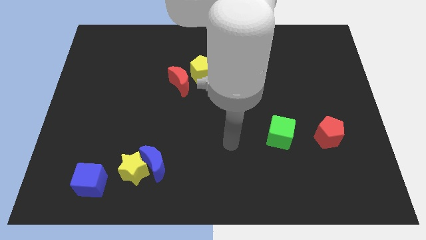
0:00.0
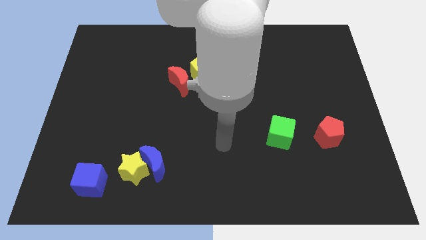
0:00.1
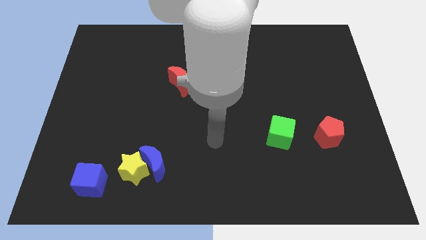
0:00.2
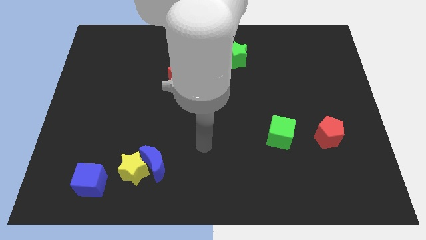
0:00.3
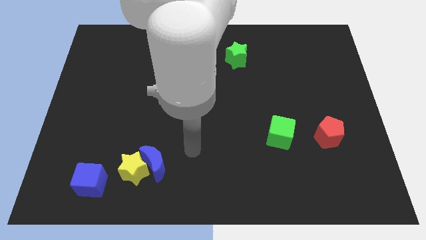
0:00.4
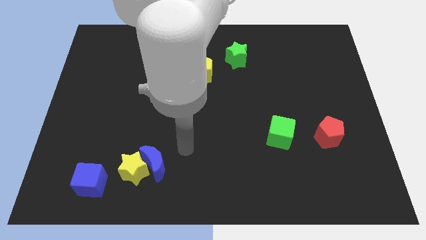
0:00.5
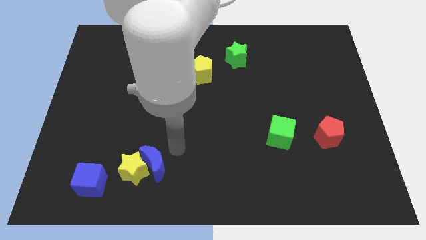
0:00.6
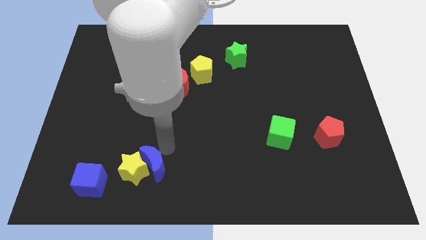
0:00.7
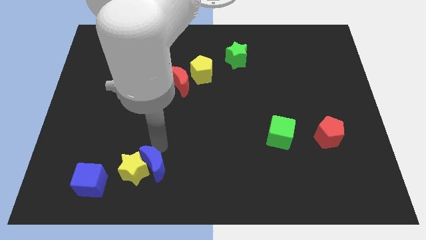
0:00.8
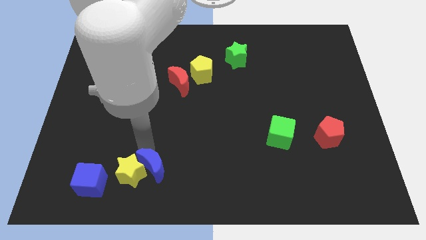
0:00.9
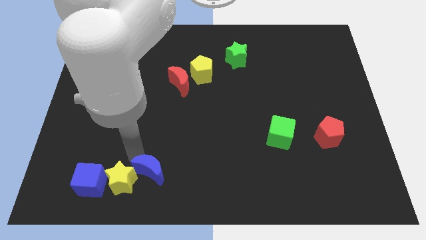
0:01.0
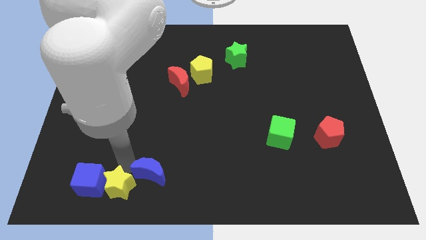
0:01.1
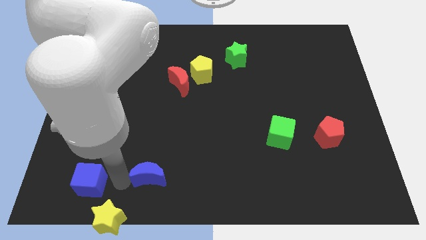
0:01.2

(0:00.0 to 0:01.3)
pull the blue moon apart from the yellow star

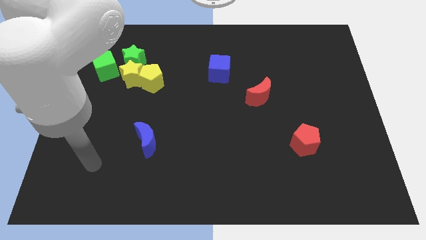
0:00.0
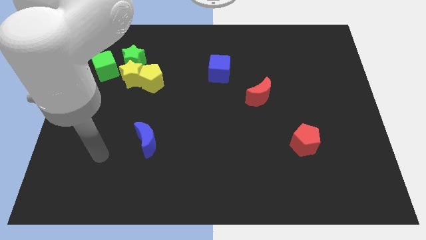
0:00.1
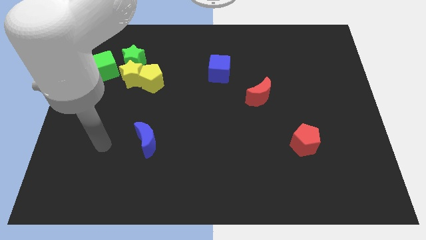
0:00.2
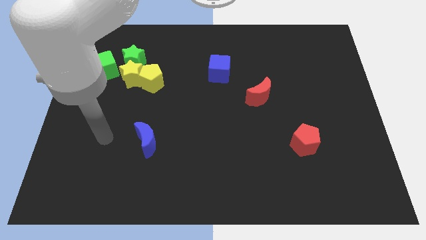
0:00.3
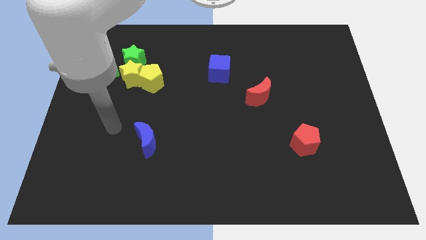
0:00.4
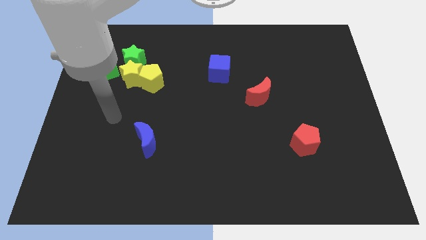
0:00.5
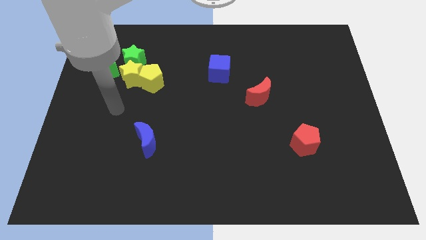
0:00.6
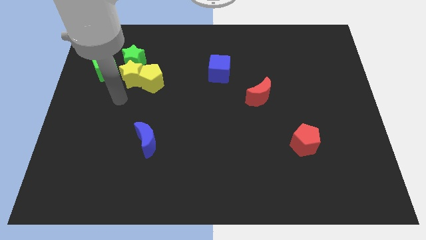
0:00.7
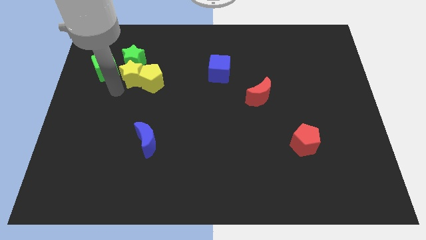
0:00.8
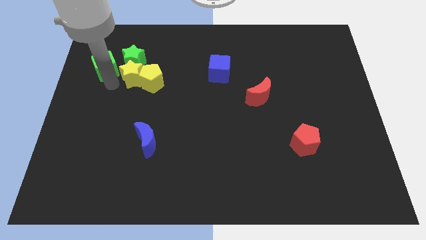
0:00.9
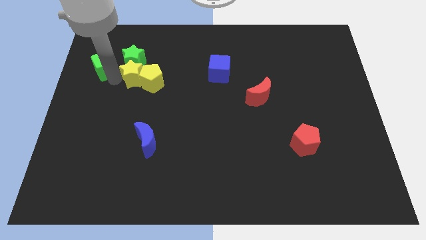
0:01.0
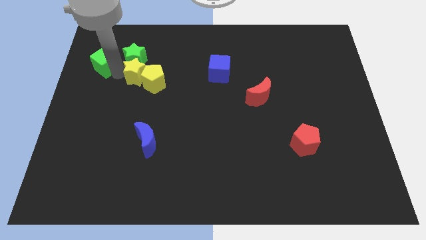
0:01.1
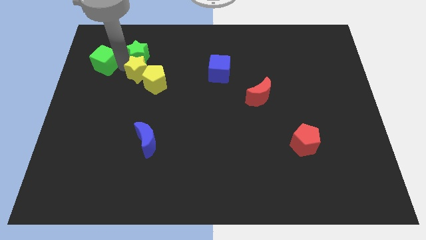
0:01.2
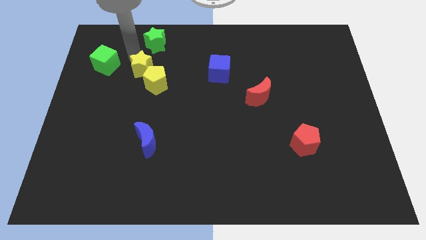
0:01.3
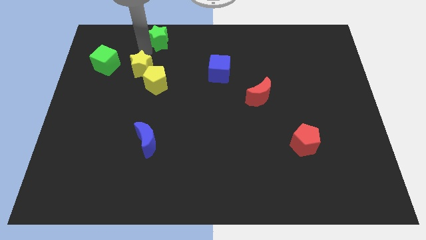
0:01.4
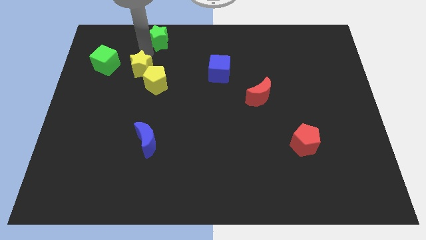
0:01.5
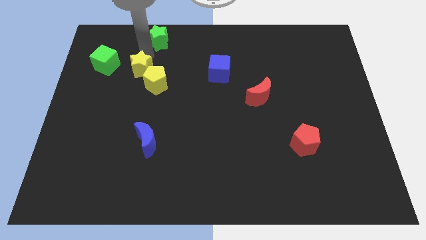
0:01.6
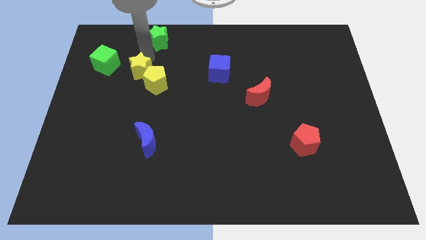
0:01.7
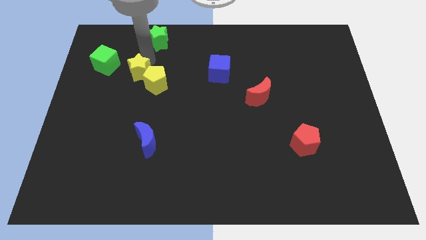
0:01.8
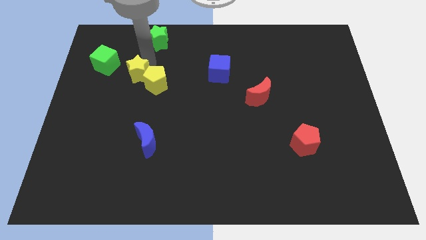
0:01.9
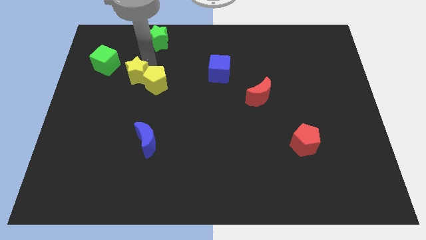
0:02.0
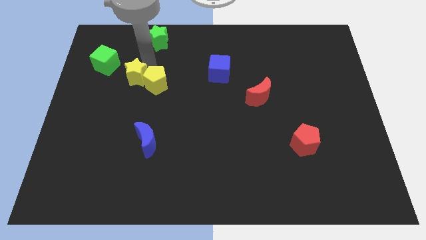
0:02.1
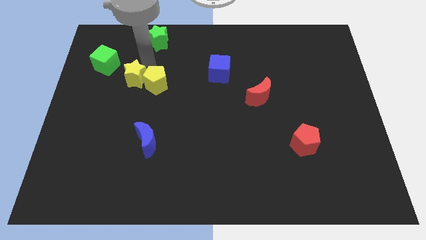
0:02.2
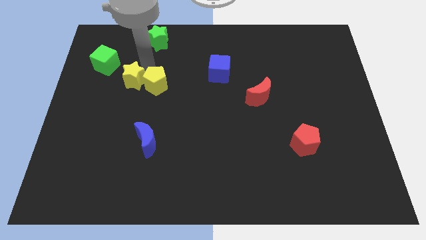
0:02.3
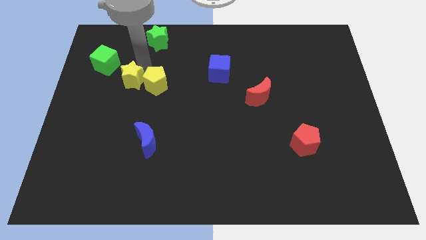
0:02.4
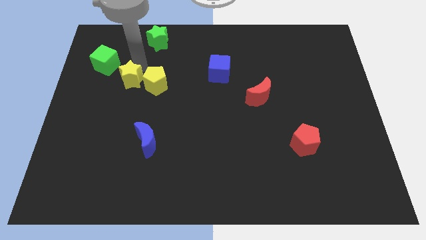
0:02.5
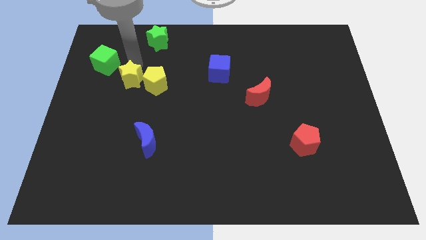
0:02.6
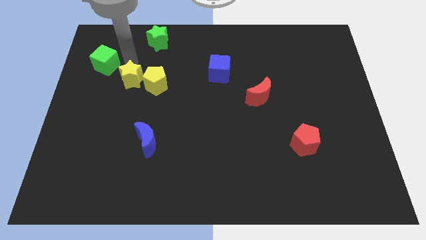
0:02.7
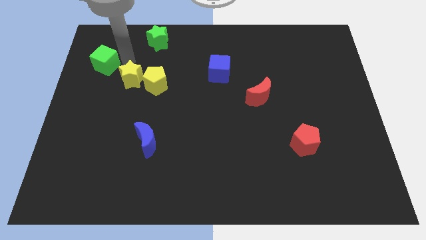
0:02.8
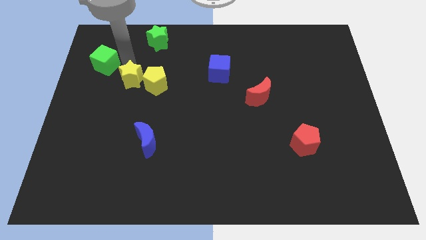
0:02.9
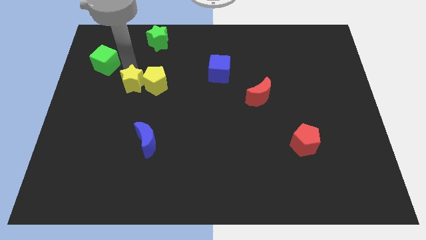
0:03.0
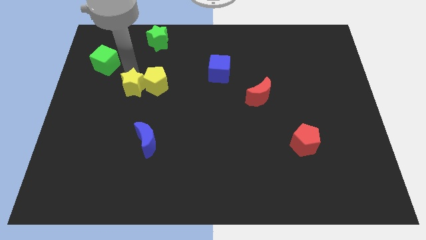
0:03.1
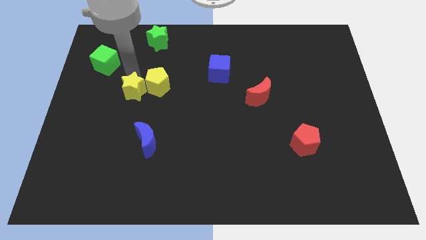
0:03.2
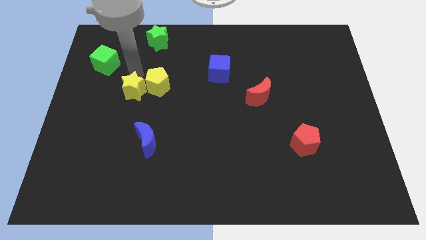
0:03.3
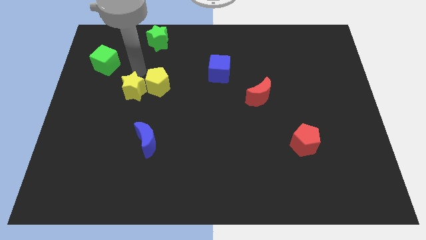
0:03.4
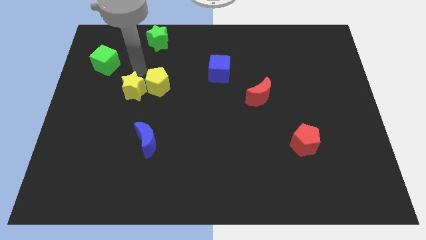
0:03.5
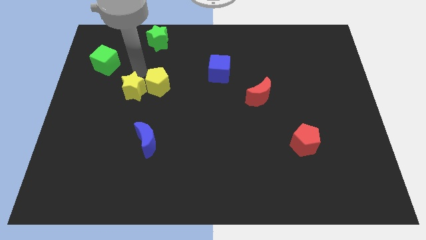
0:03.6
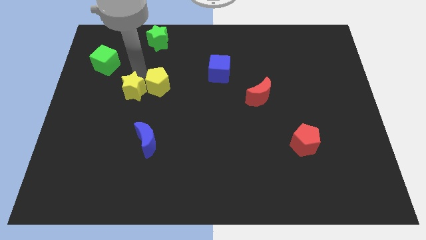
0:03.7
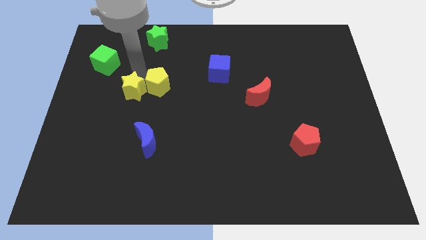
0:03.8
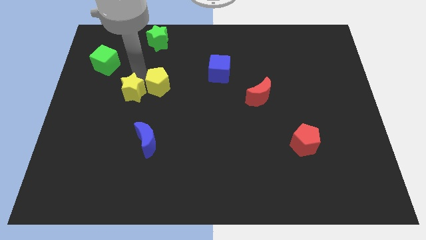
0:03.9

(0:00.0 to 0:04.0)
separate the yellow star from the group of blocks

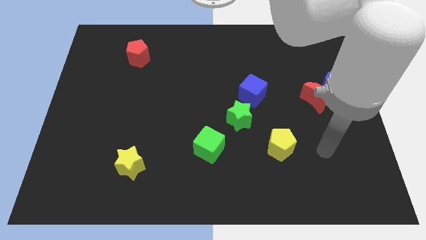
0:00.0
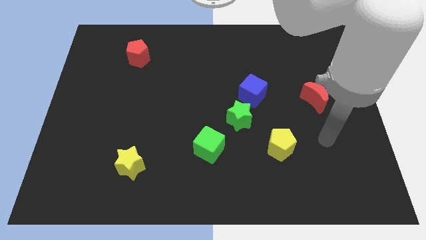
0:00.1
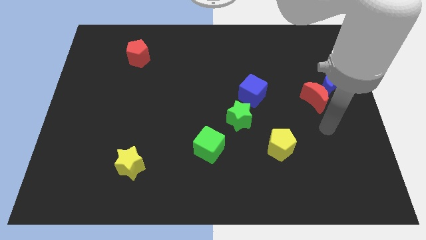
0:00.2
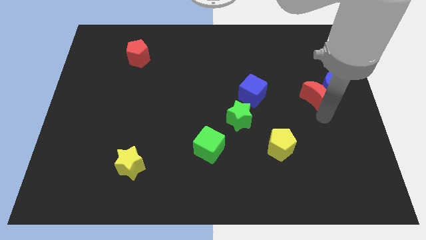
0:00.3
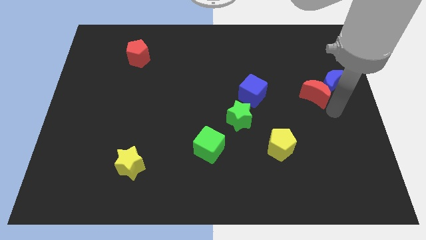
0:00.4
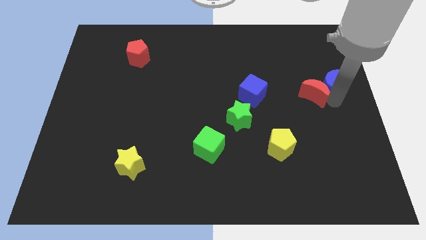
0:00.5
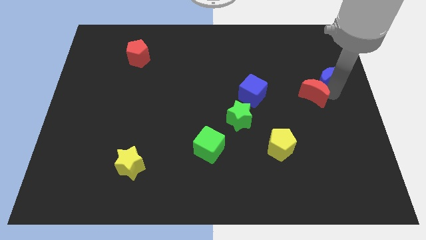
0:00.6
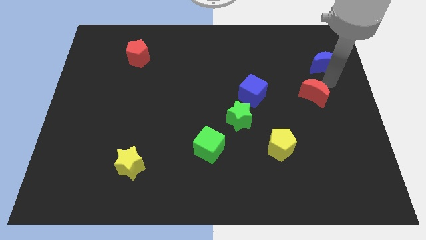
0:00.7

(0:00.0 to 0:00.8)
move the red moon away from the blue moon

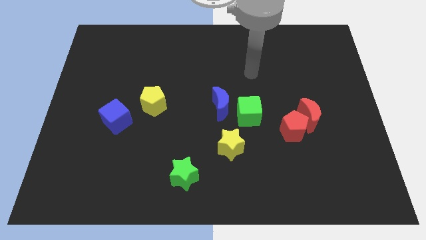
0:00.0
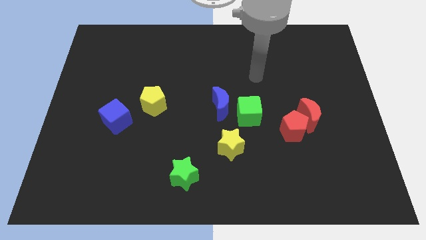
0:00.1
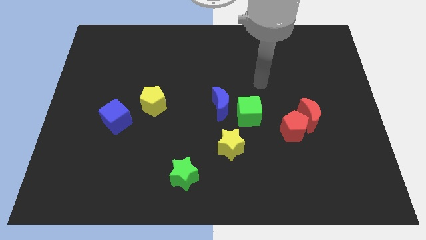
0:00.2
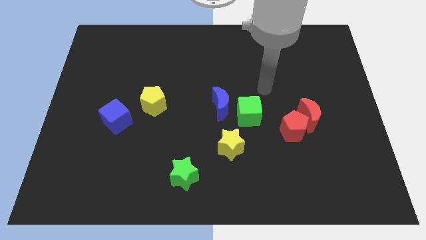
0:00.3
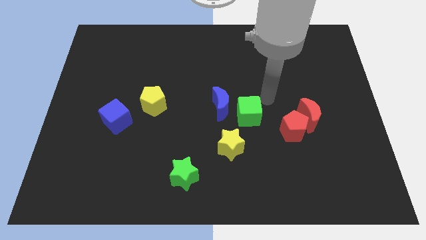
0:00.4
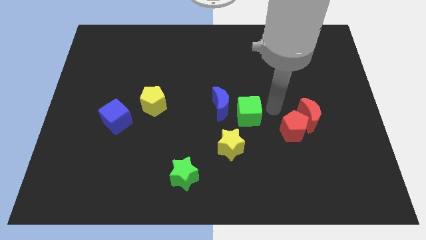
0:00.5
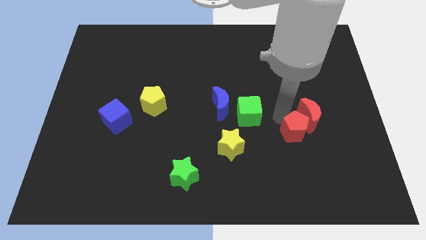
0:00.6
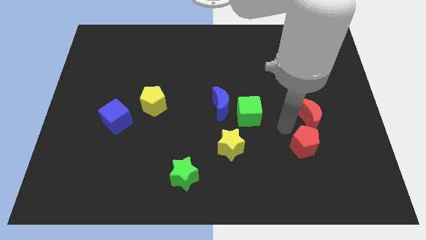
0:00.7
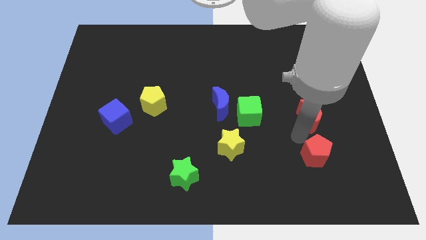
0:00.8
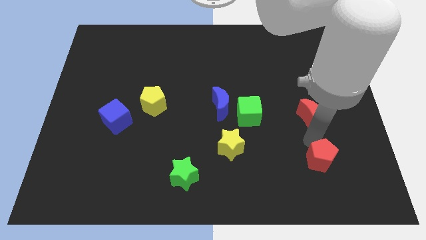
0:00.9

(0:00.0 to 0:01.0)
move the red moon away from the red pentagon

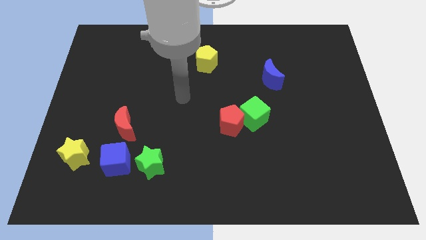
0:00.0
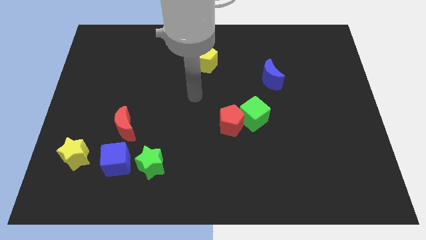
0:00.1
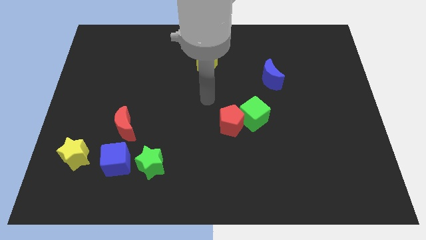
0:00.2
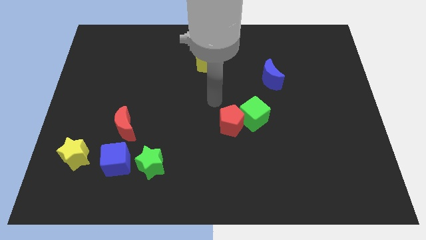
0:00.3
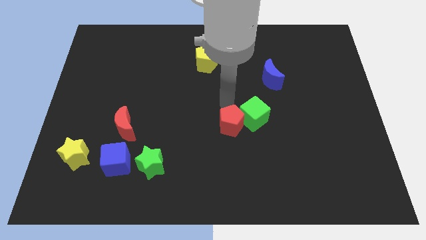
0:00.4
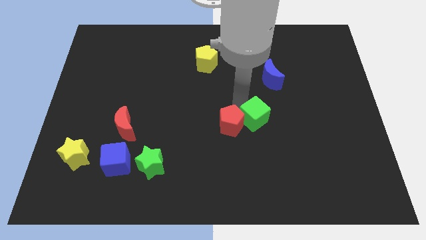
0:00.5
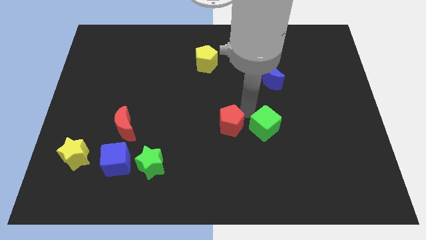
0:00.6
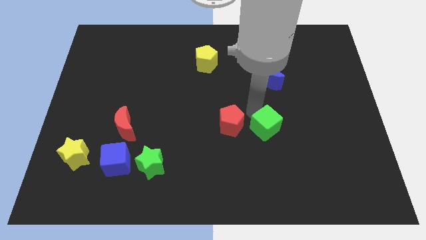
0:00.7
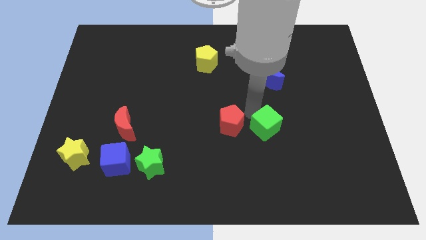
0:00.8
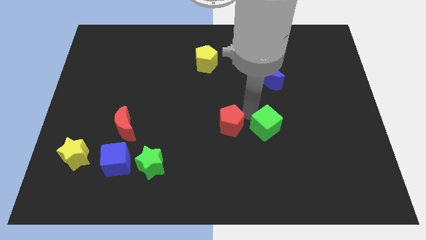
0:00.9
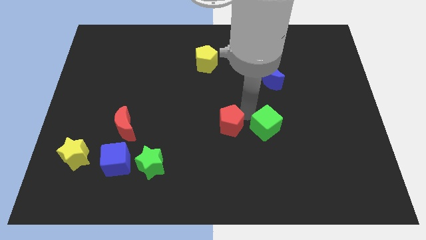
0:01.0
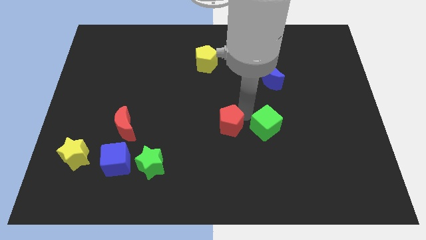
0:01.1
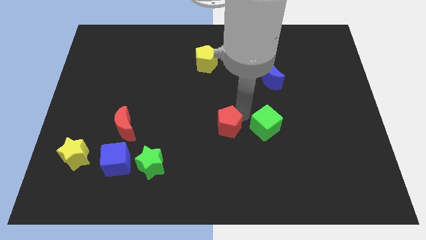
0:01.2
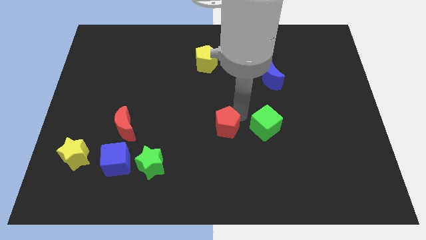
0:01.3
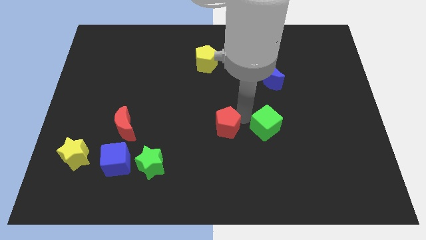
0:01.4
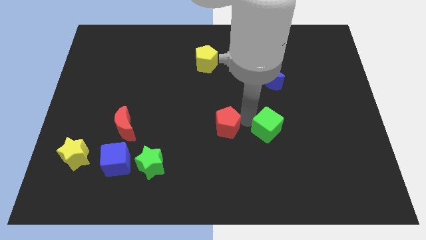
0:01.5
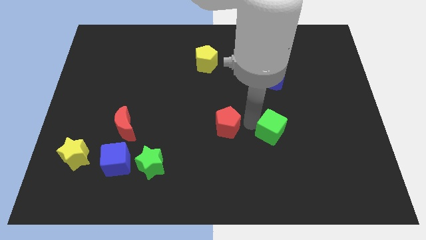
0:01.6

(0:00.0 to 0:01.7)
pull the red pentagon apart from the green cube

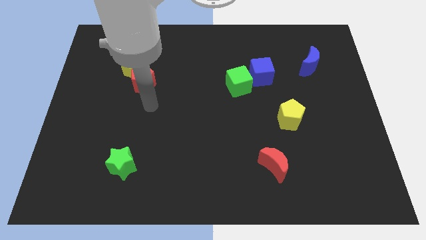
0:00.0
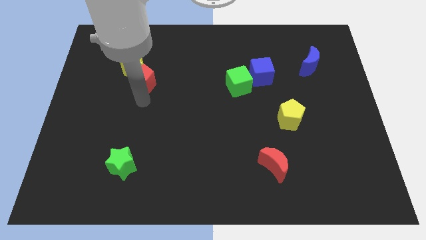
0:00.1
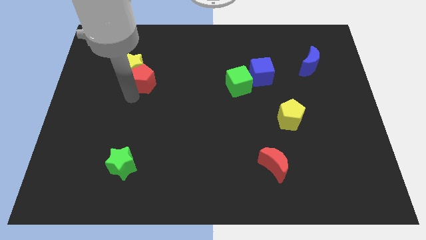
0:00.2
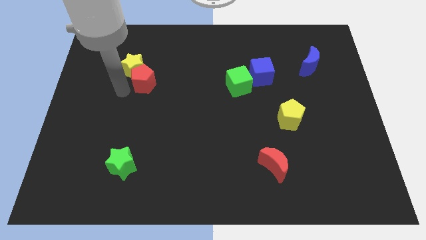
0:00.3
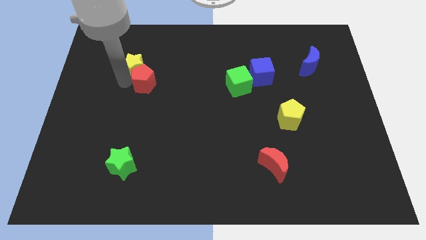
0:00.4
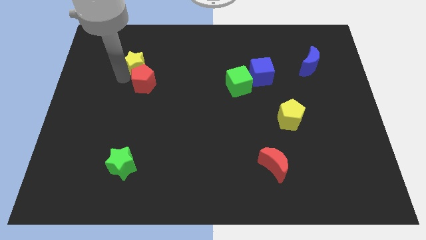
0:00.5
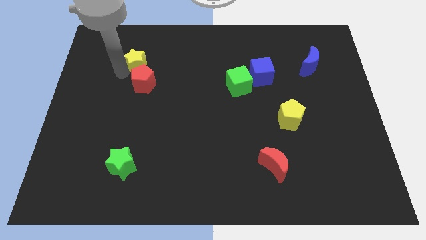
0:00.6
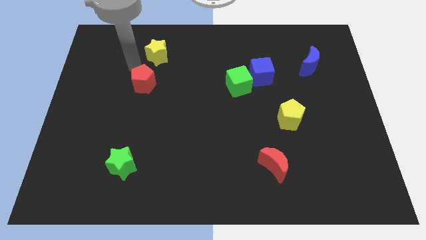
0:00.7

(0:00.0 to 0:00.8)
separate the red pentagon from the yellow star
